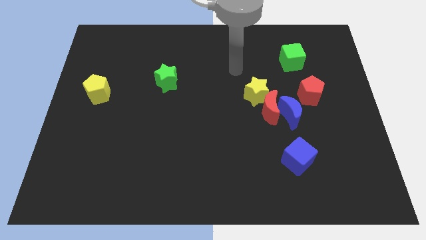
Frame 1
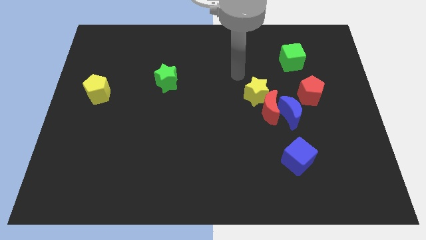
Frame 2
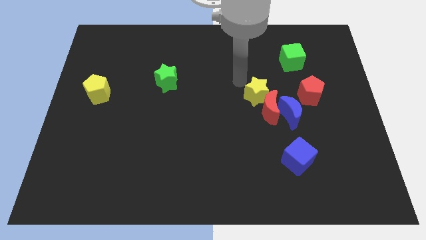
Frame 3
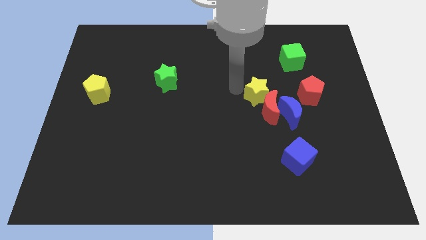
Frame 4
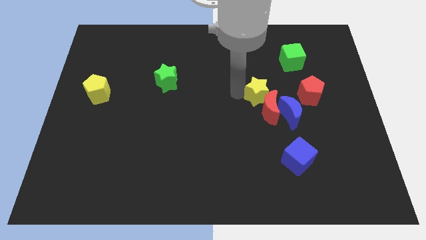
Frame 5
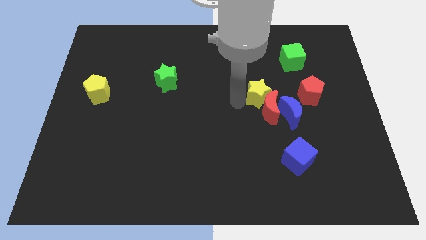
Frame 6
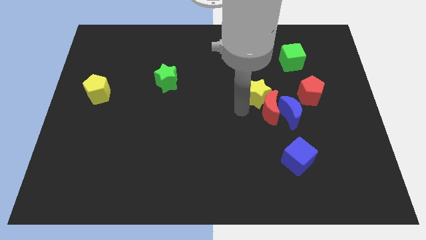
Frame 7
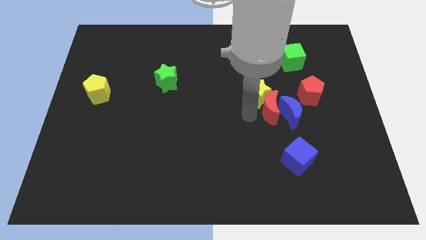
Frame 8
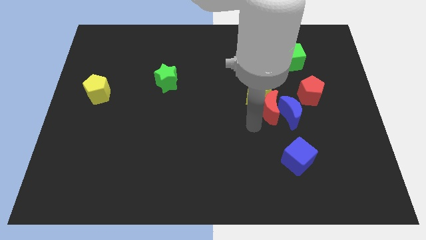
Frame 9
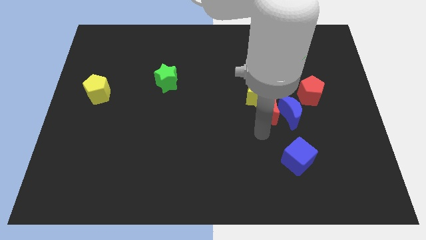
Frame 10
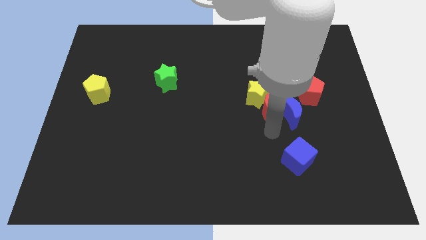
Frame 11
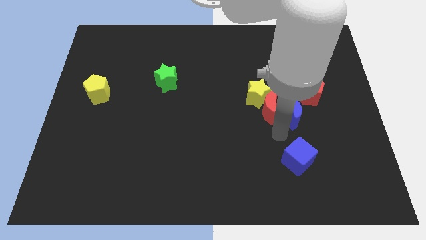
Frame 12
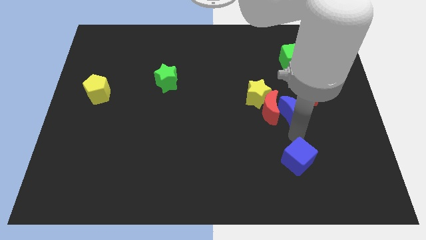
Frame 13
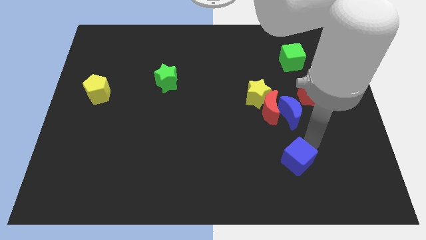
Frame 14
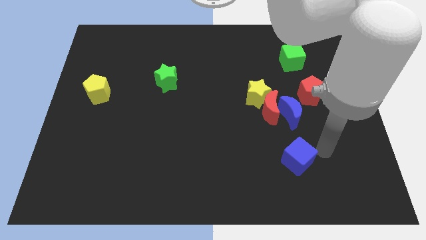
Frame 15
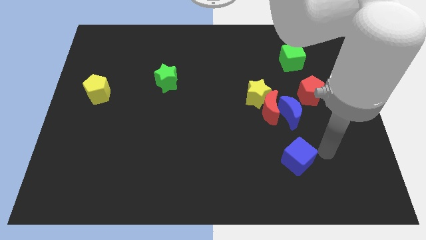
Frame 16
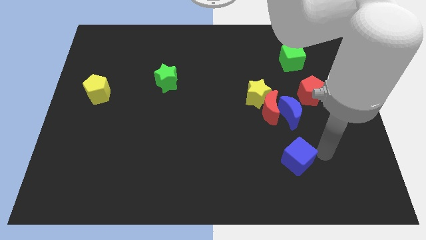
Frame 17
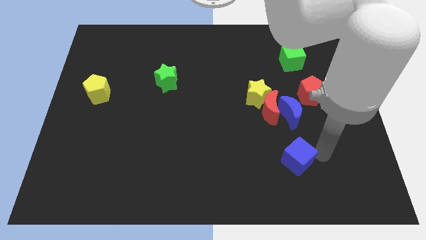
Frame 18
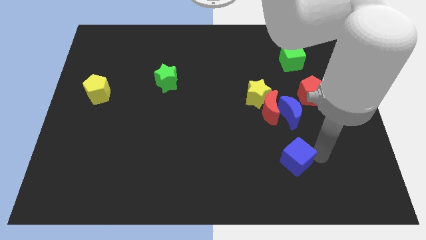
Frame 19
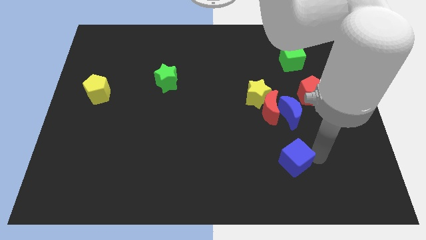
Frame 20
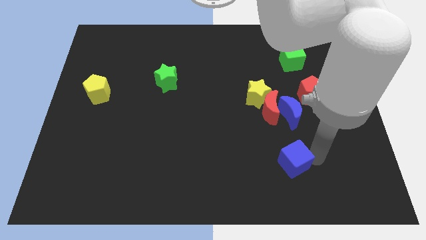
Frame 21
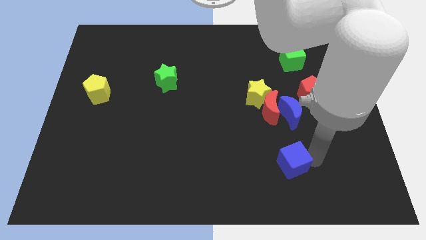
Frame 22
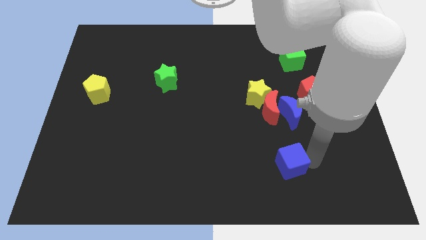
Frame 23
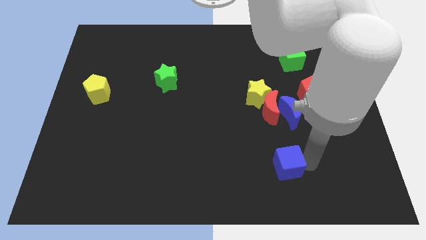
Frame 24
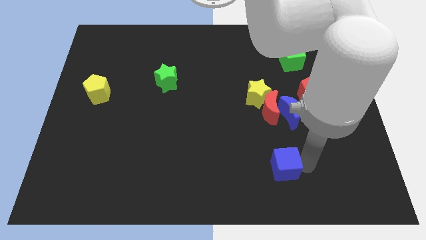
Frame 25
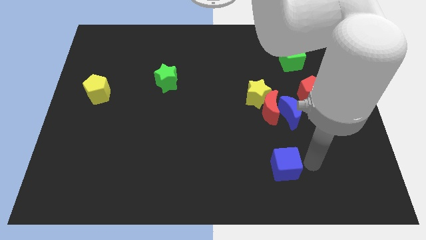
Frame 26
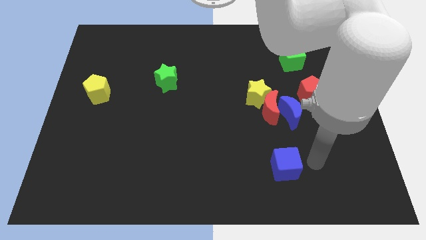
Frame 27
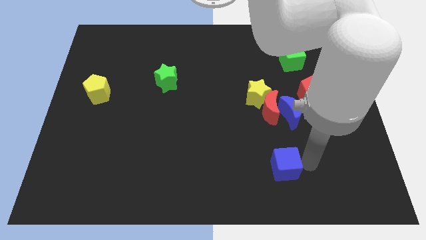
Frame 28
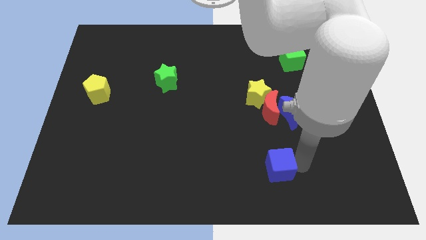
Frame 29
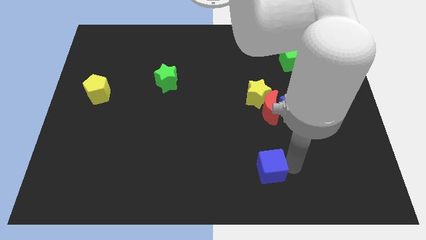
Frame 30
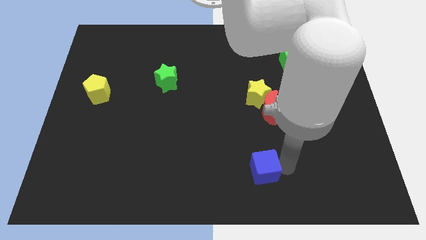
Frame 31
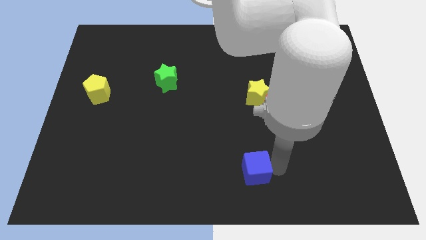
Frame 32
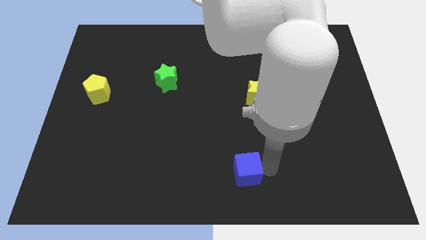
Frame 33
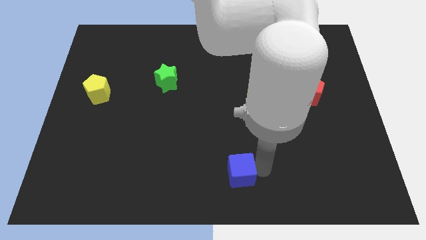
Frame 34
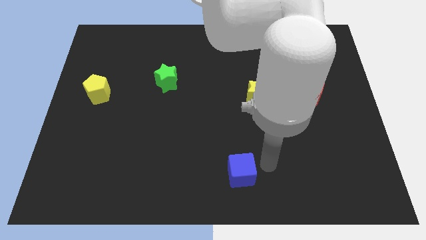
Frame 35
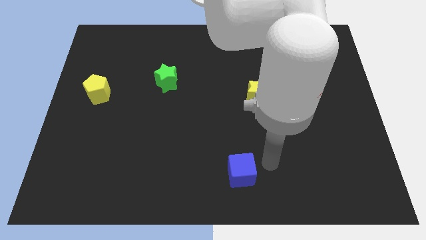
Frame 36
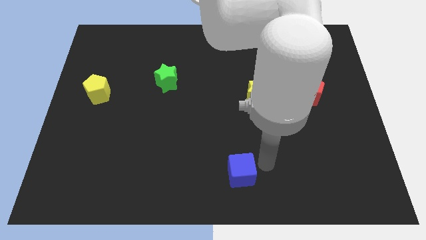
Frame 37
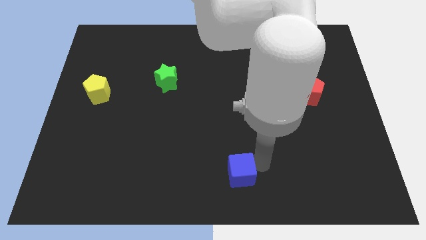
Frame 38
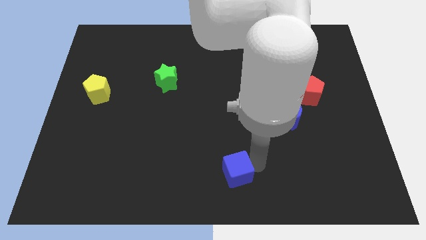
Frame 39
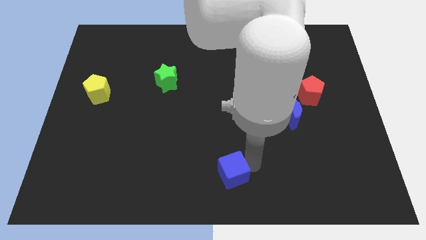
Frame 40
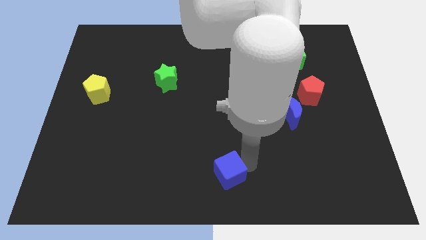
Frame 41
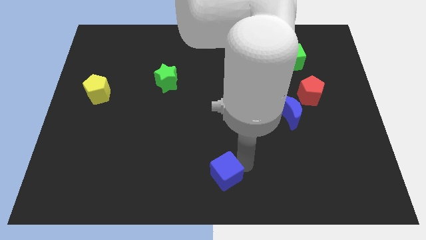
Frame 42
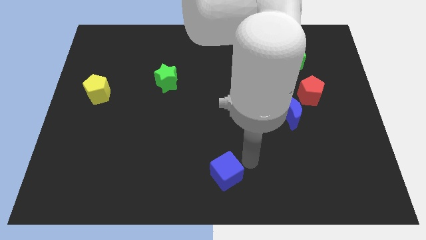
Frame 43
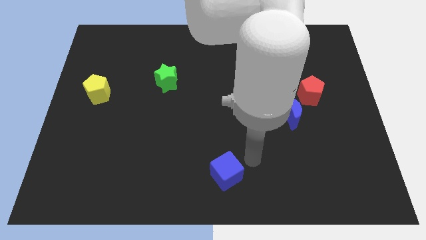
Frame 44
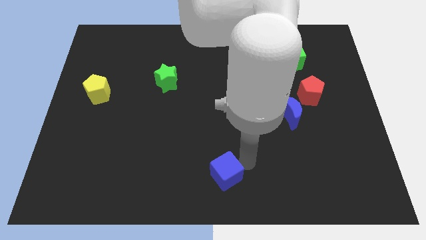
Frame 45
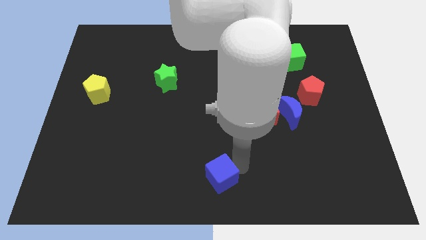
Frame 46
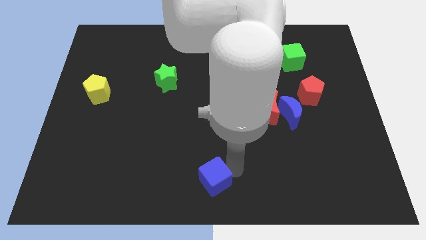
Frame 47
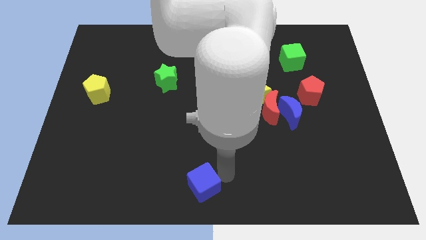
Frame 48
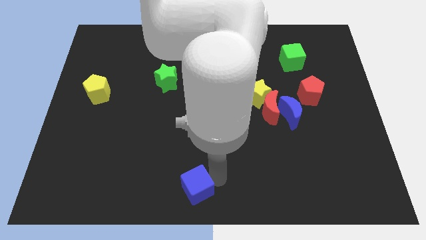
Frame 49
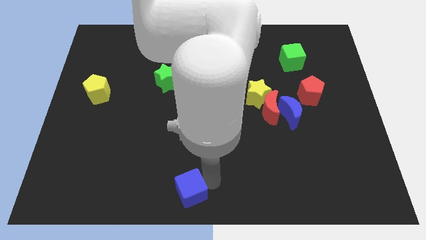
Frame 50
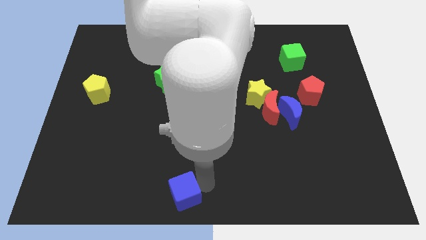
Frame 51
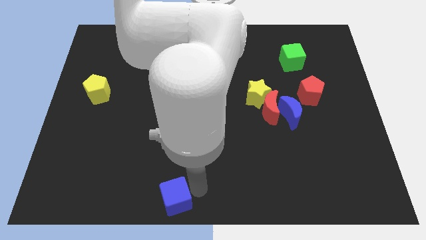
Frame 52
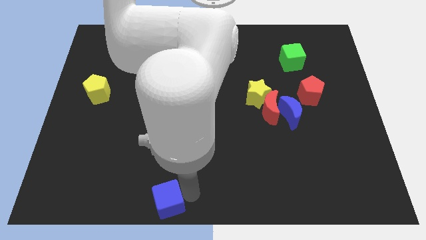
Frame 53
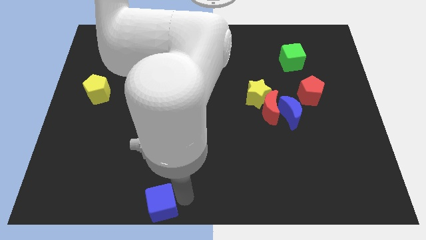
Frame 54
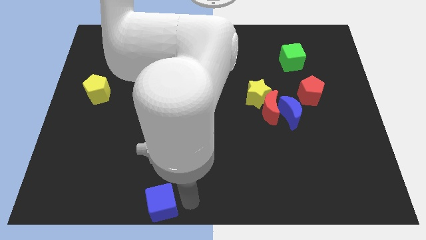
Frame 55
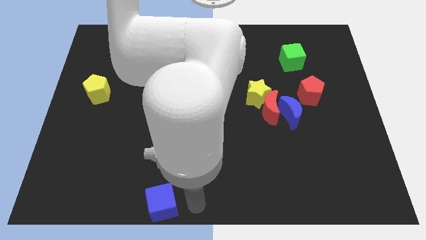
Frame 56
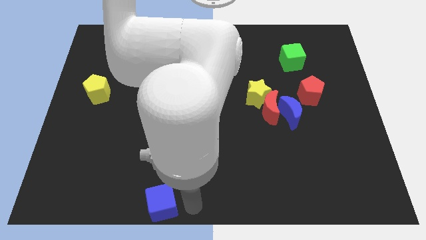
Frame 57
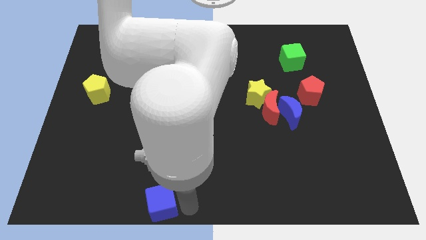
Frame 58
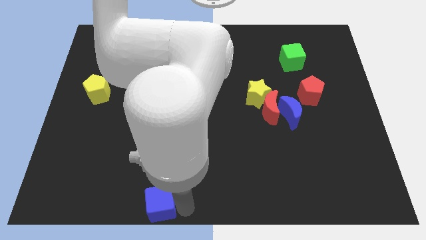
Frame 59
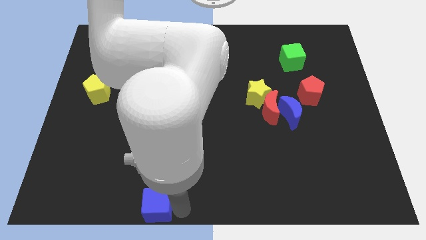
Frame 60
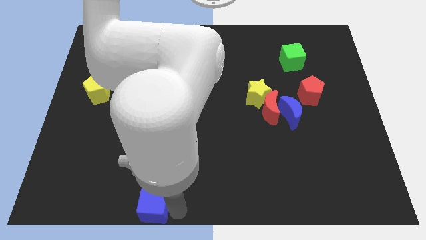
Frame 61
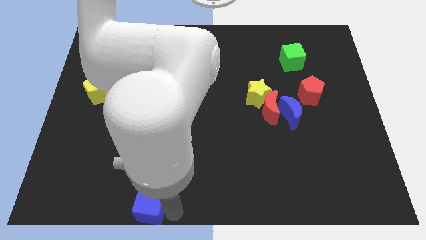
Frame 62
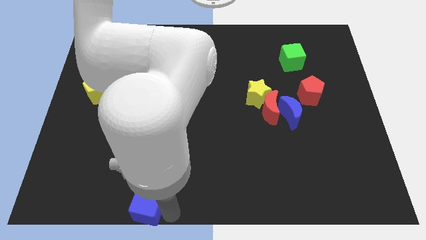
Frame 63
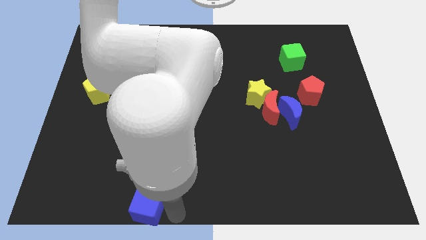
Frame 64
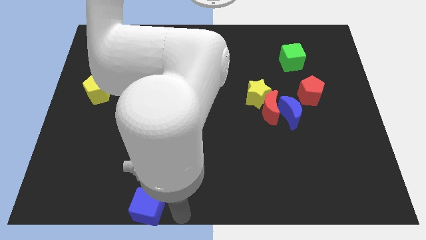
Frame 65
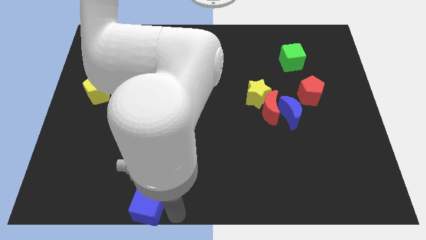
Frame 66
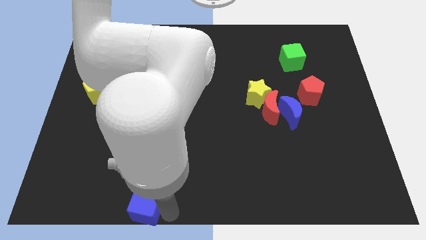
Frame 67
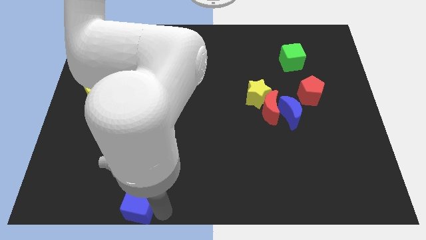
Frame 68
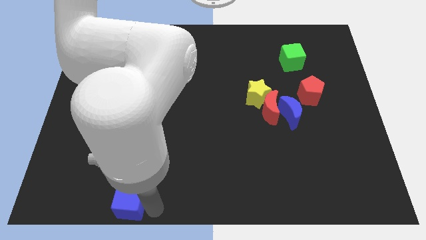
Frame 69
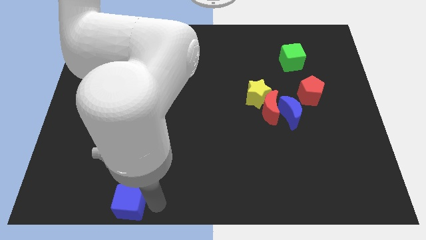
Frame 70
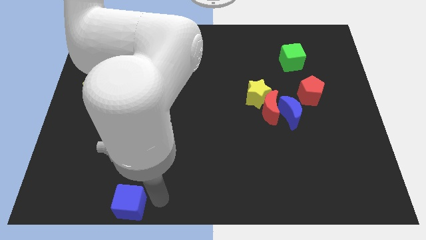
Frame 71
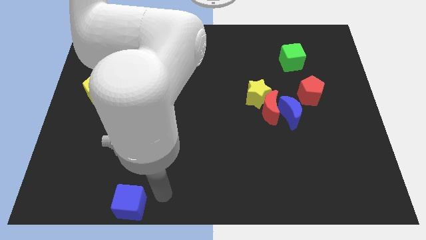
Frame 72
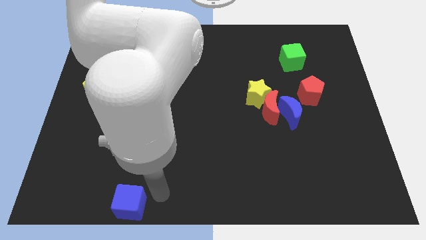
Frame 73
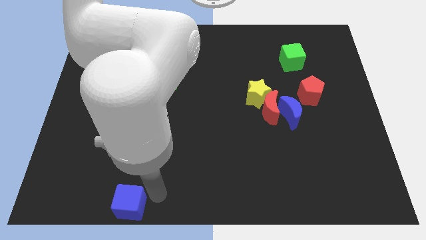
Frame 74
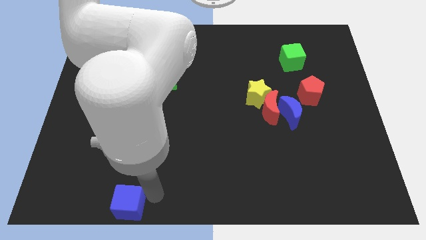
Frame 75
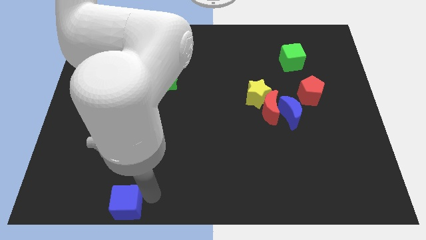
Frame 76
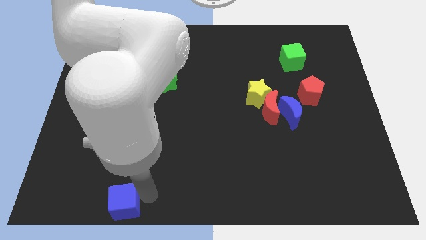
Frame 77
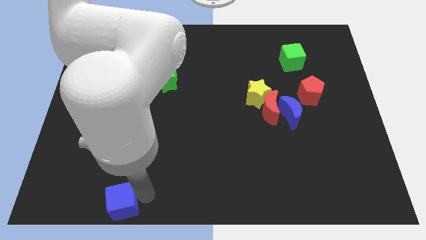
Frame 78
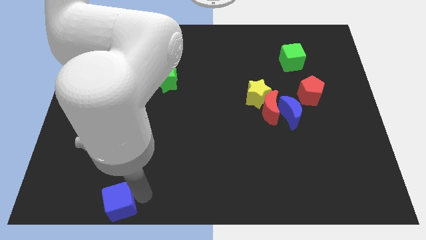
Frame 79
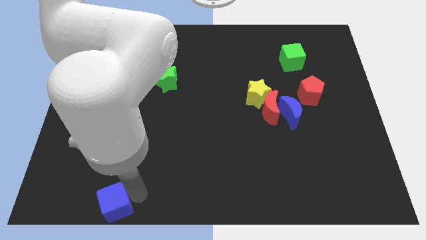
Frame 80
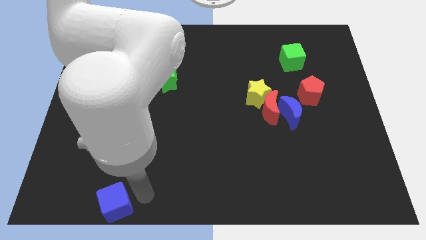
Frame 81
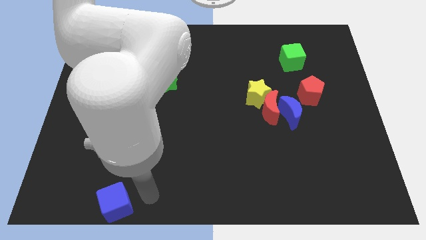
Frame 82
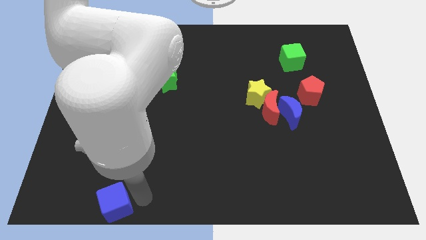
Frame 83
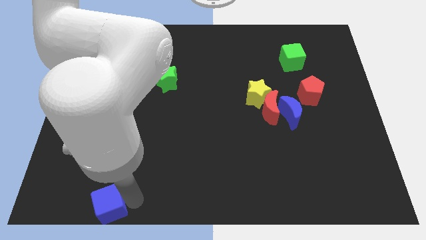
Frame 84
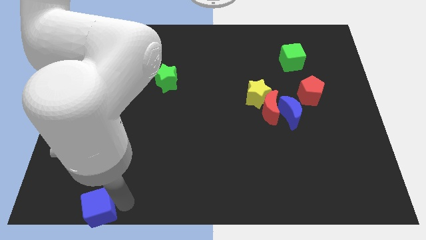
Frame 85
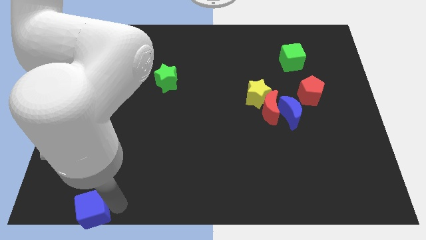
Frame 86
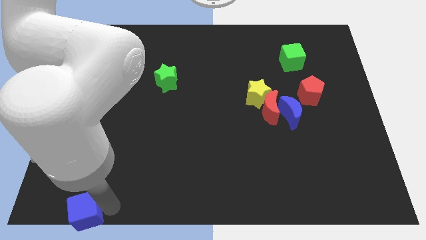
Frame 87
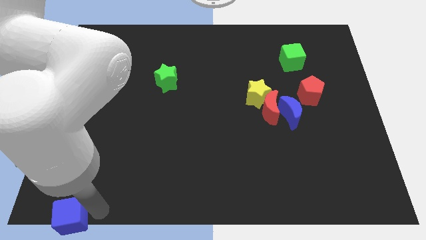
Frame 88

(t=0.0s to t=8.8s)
slide the blue cube to the bottom left
